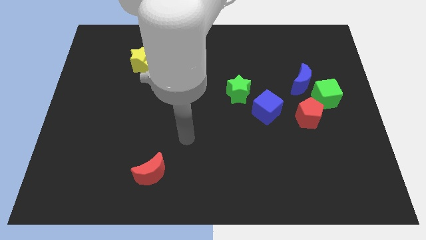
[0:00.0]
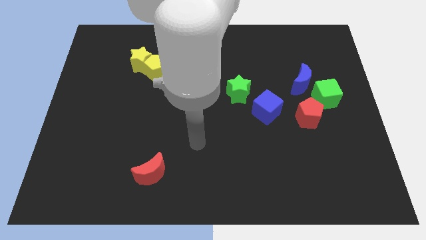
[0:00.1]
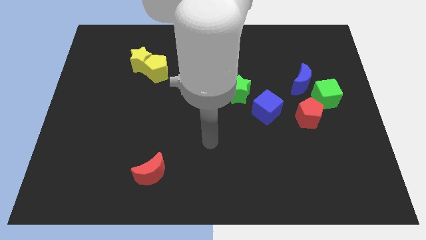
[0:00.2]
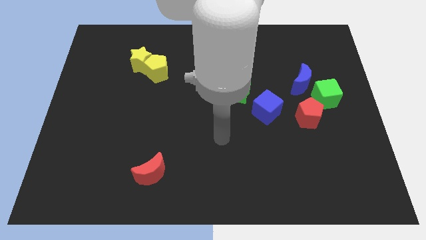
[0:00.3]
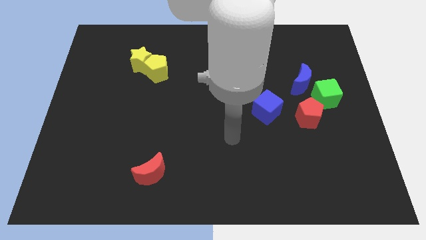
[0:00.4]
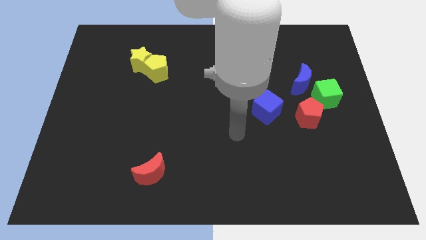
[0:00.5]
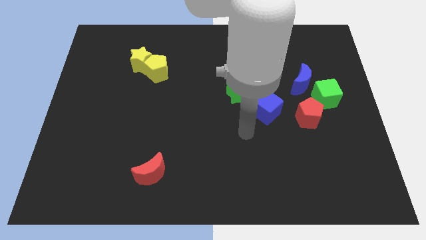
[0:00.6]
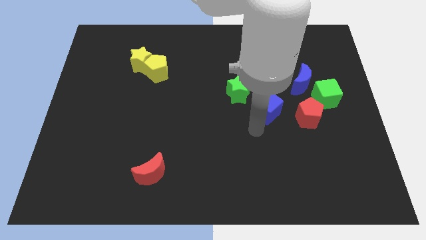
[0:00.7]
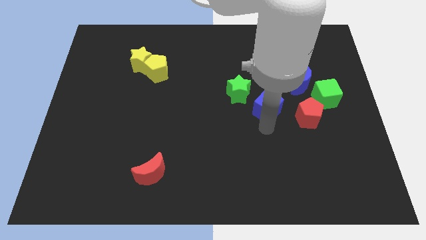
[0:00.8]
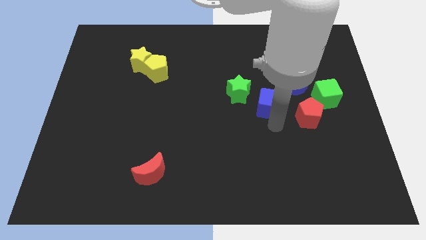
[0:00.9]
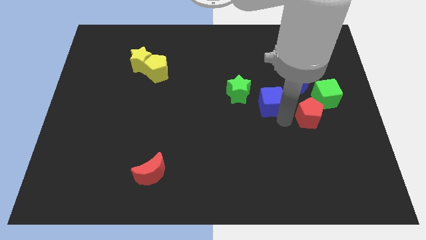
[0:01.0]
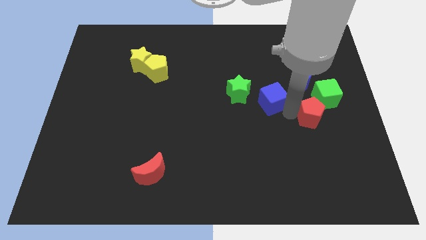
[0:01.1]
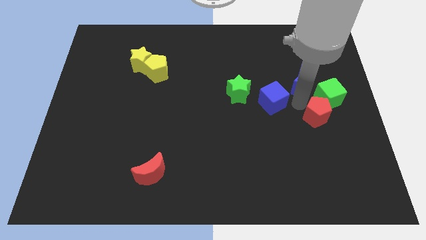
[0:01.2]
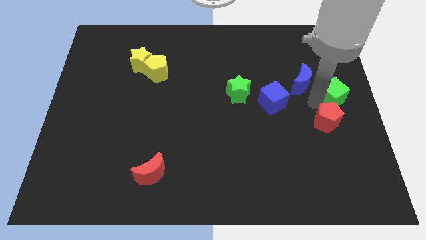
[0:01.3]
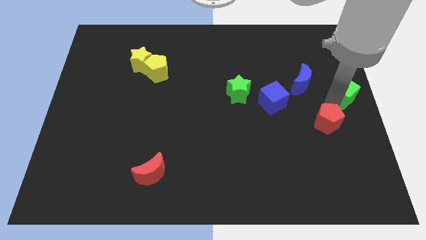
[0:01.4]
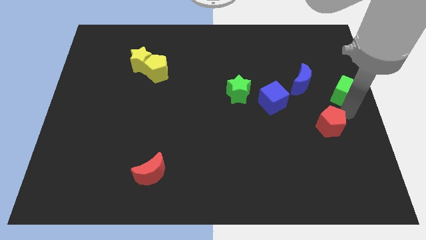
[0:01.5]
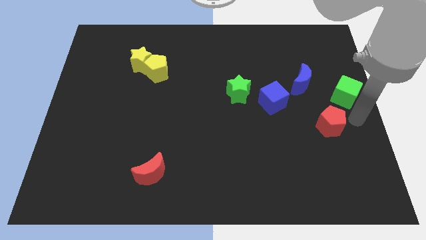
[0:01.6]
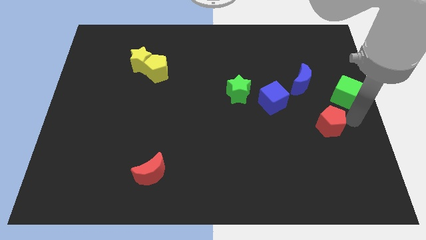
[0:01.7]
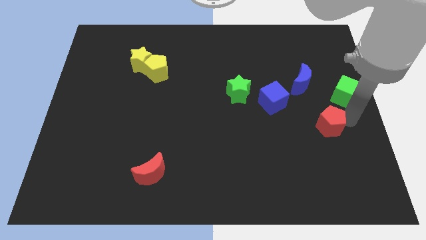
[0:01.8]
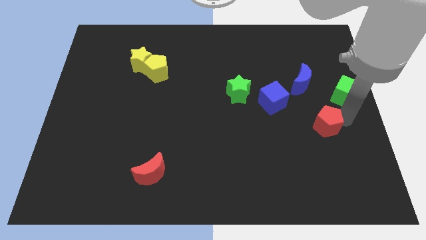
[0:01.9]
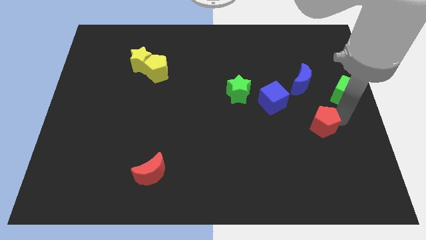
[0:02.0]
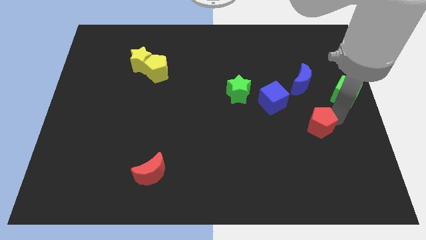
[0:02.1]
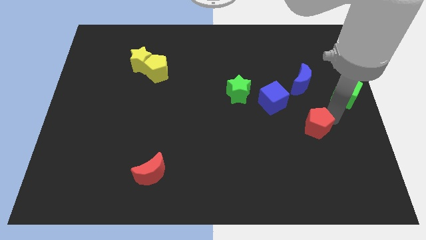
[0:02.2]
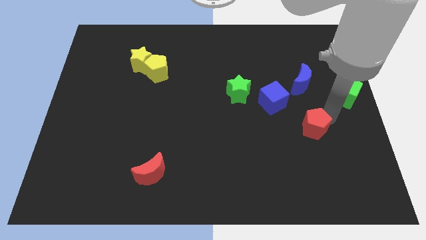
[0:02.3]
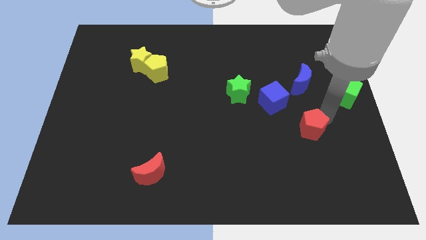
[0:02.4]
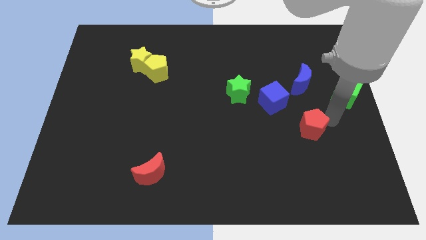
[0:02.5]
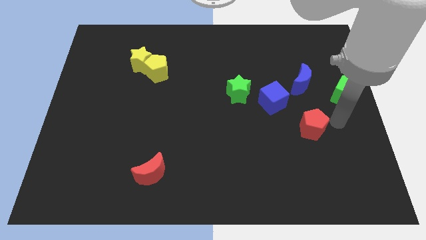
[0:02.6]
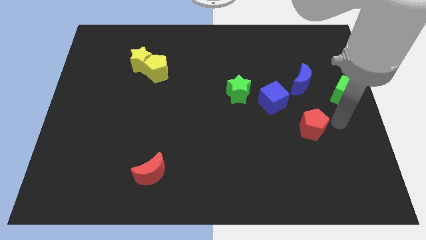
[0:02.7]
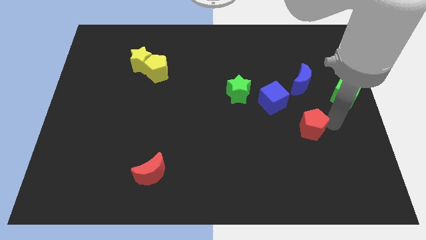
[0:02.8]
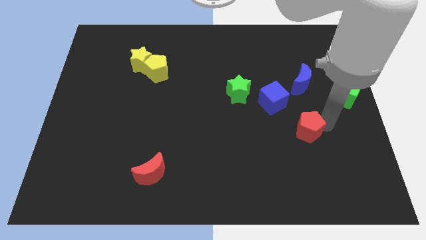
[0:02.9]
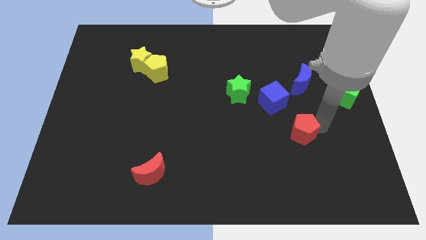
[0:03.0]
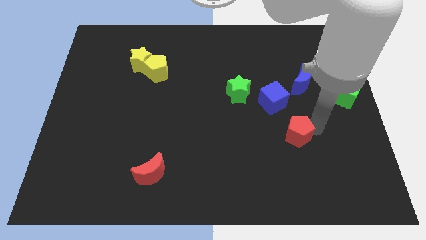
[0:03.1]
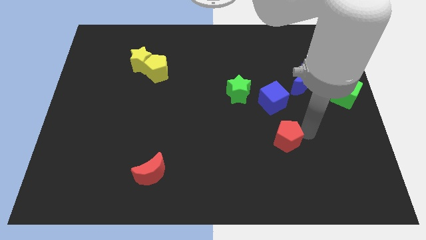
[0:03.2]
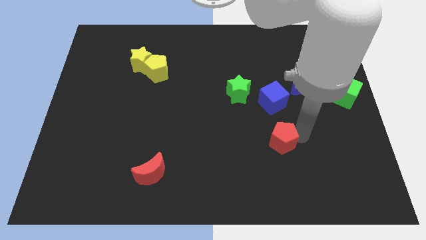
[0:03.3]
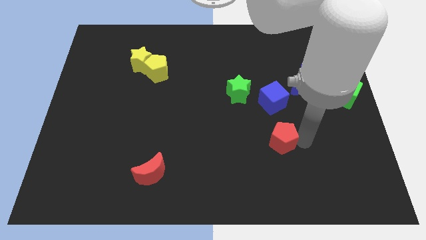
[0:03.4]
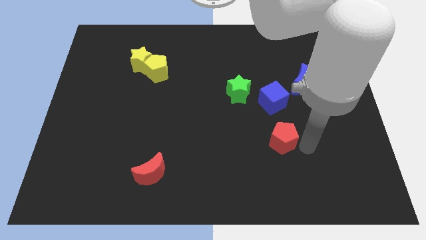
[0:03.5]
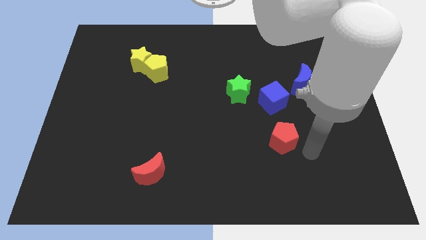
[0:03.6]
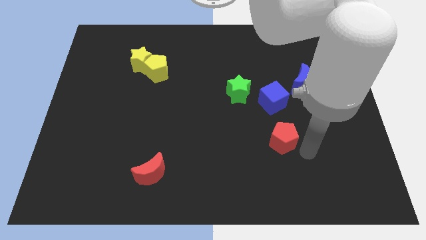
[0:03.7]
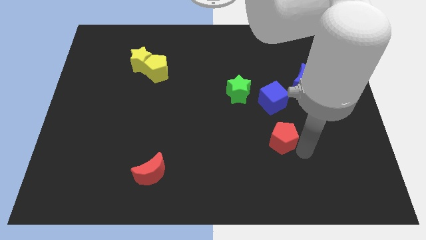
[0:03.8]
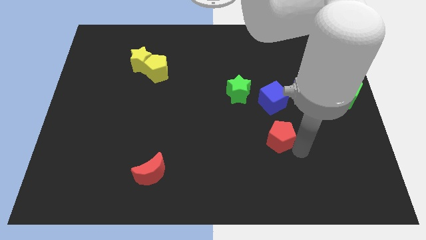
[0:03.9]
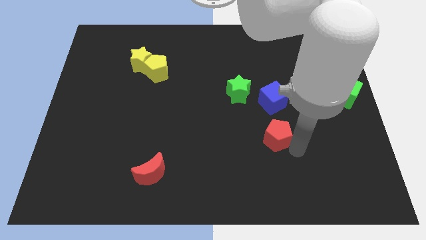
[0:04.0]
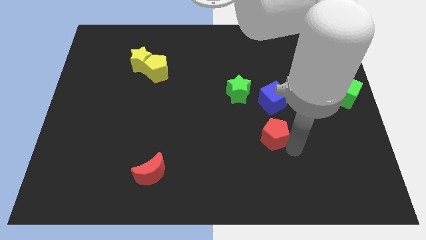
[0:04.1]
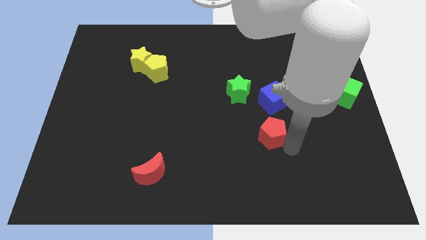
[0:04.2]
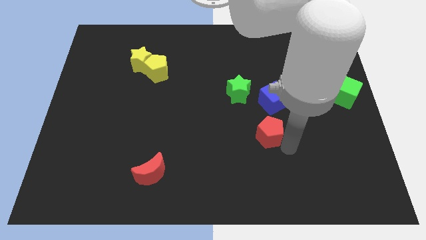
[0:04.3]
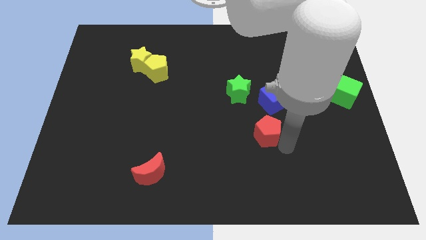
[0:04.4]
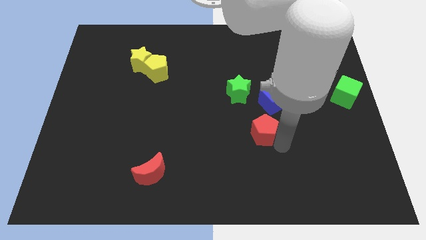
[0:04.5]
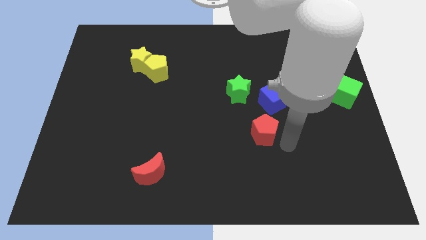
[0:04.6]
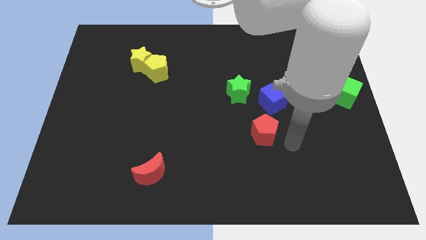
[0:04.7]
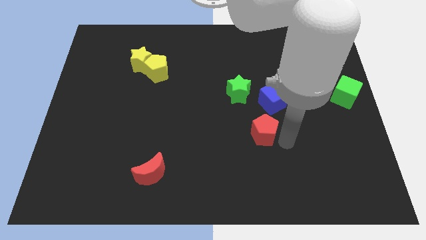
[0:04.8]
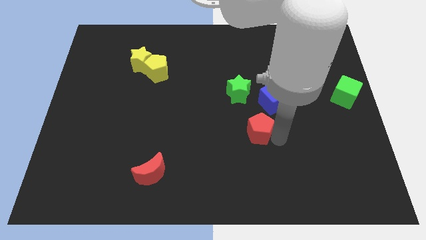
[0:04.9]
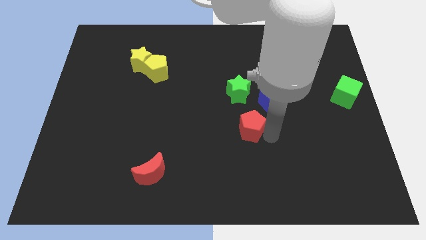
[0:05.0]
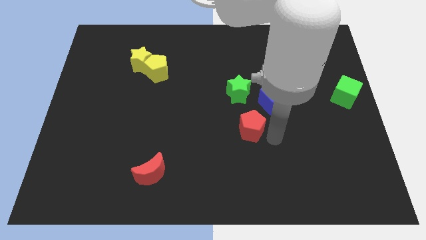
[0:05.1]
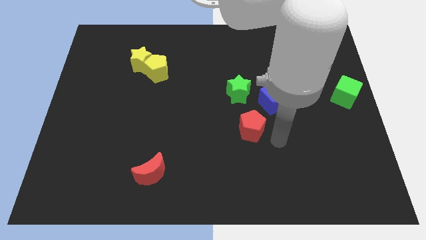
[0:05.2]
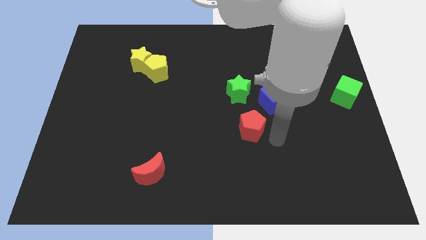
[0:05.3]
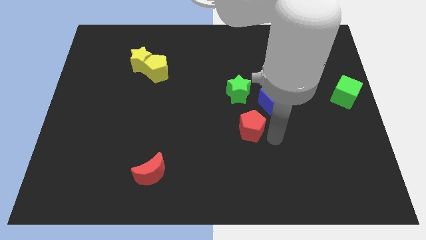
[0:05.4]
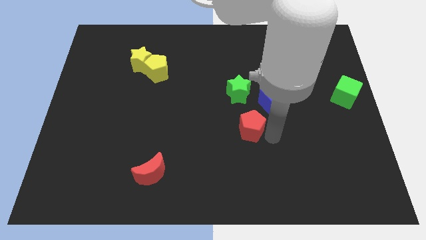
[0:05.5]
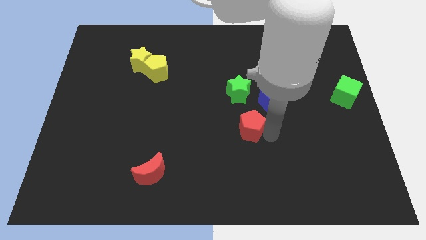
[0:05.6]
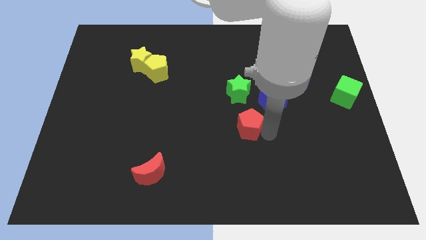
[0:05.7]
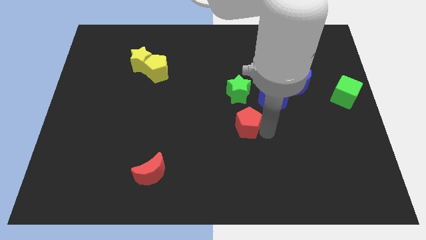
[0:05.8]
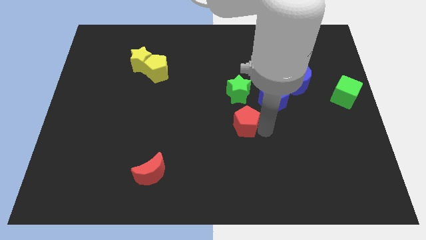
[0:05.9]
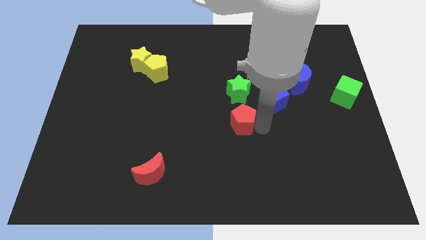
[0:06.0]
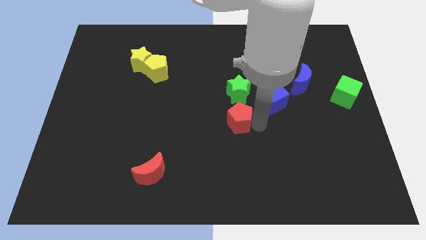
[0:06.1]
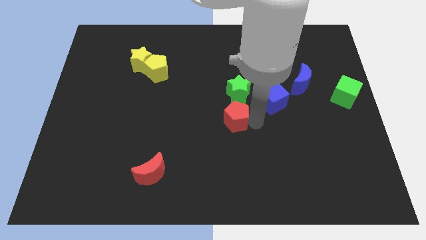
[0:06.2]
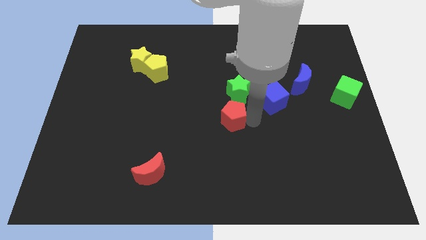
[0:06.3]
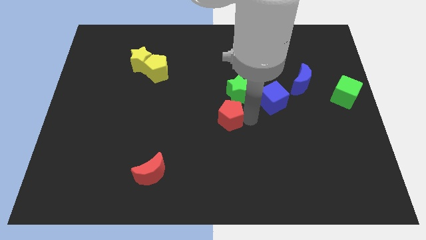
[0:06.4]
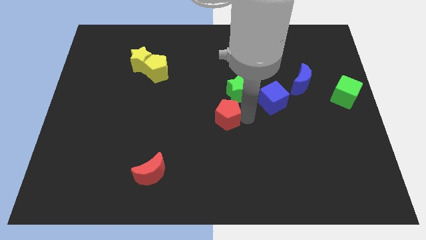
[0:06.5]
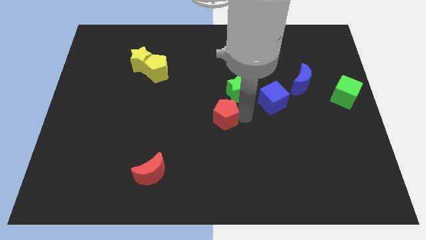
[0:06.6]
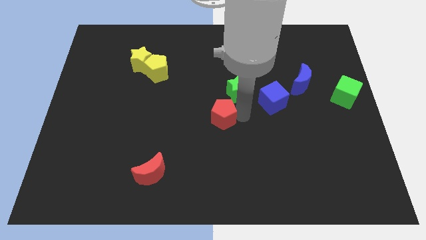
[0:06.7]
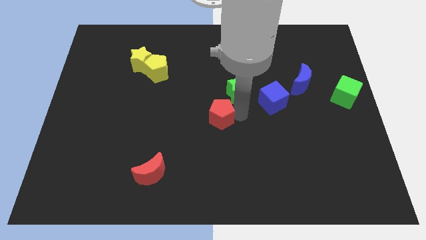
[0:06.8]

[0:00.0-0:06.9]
move the red pentagon left

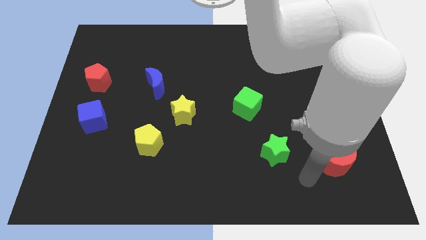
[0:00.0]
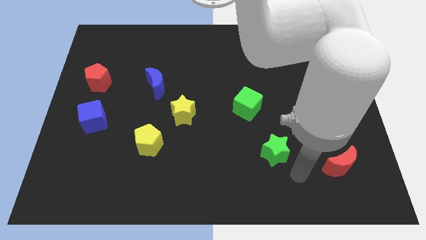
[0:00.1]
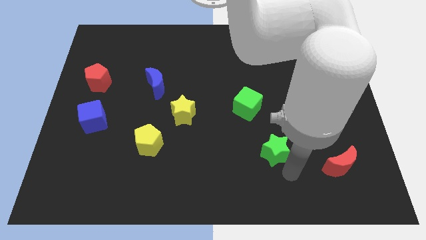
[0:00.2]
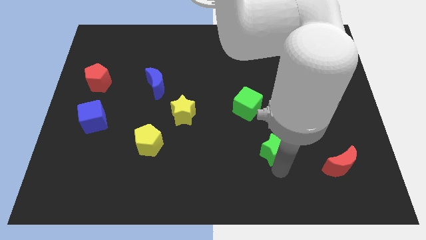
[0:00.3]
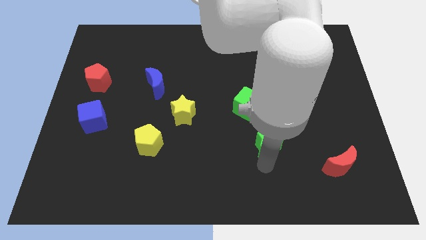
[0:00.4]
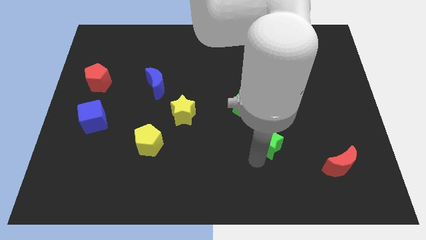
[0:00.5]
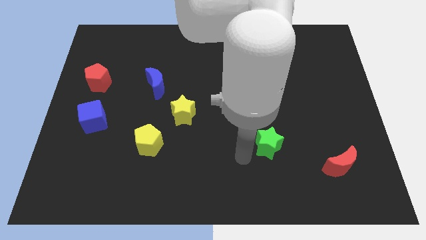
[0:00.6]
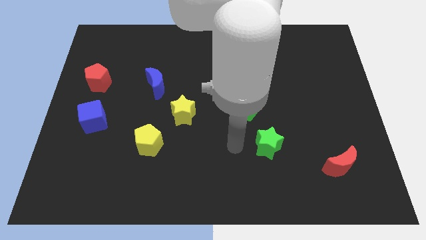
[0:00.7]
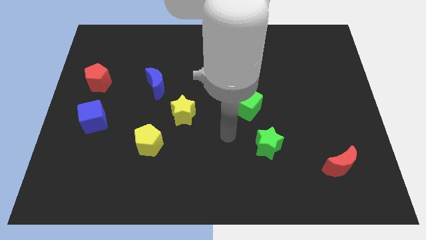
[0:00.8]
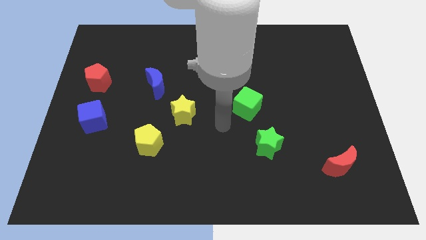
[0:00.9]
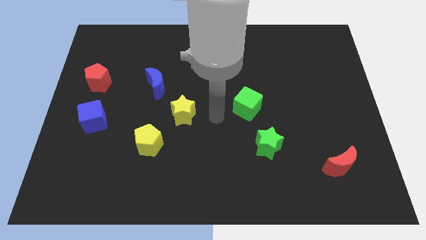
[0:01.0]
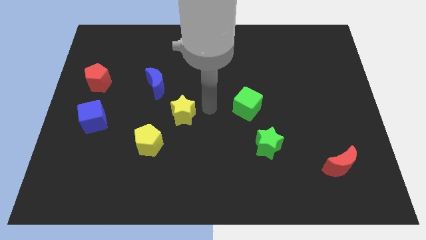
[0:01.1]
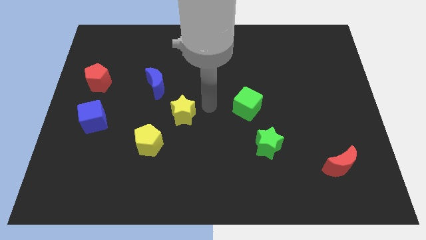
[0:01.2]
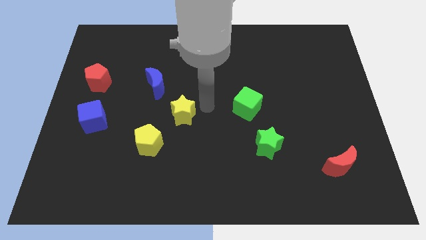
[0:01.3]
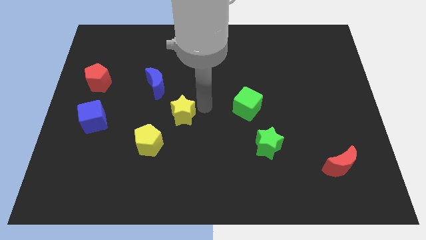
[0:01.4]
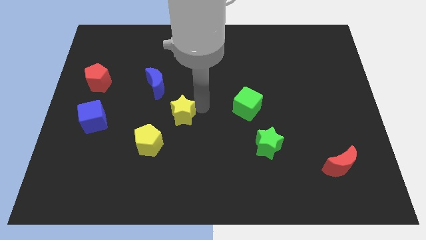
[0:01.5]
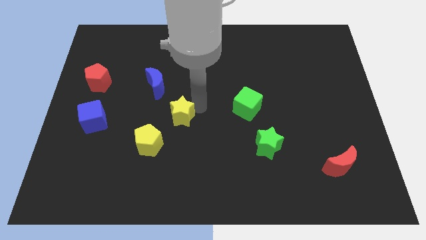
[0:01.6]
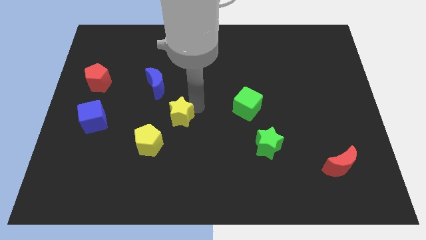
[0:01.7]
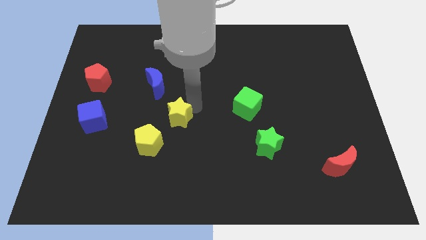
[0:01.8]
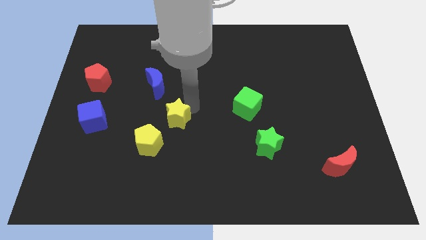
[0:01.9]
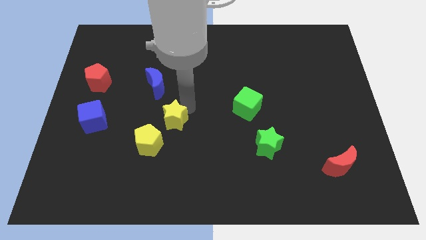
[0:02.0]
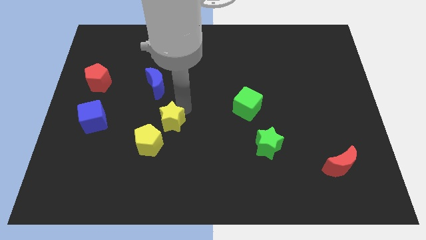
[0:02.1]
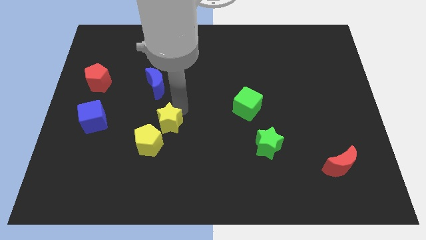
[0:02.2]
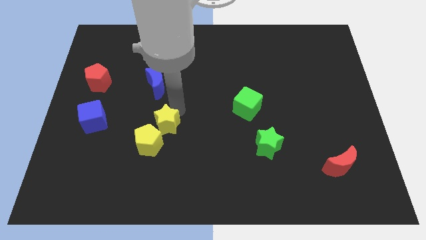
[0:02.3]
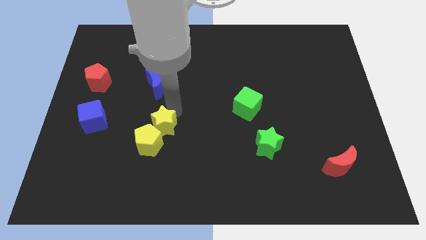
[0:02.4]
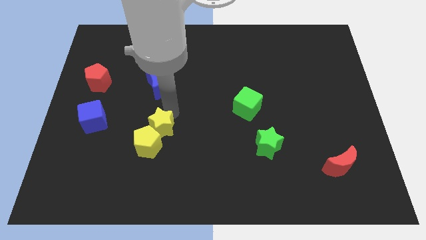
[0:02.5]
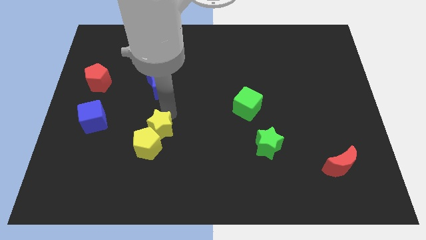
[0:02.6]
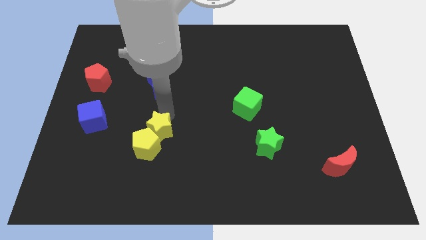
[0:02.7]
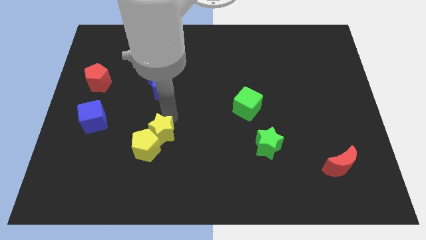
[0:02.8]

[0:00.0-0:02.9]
slightly push the yellow star diagonally down and left
